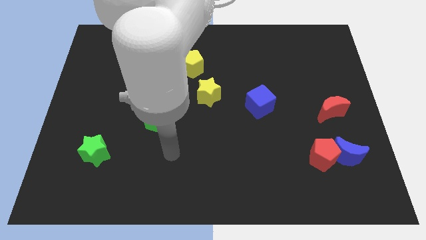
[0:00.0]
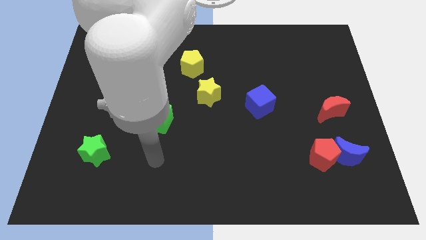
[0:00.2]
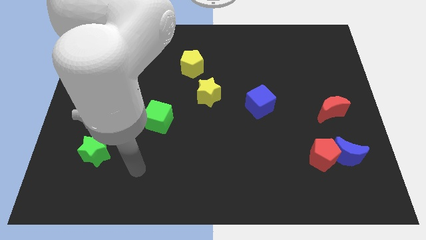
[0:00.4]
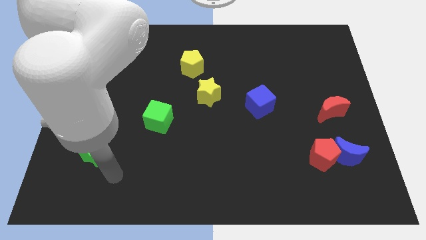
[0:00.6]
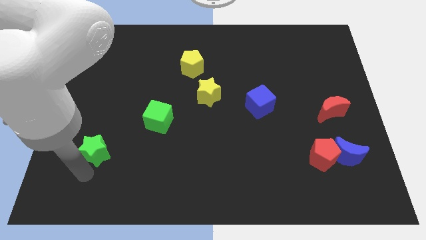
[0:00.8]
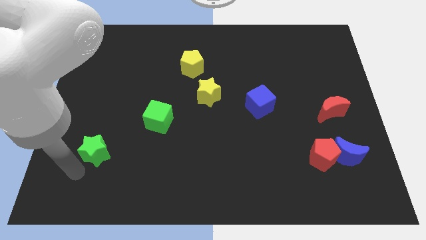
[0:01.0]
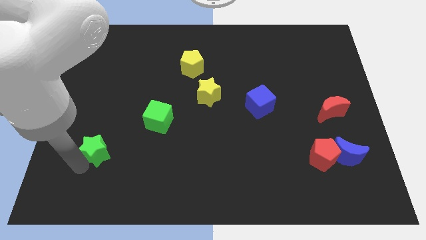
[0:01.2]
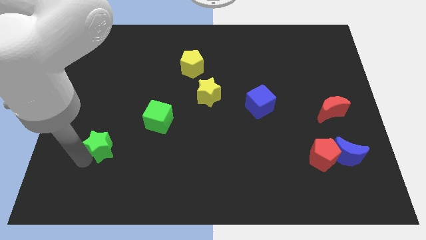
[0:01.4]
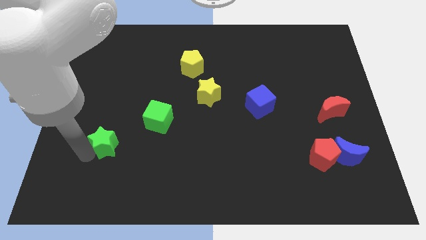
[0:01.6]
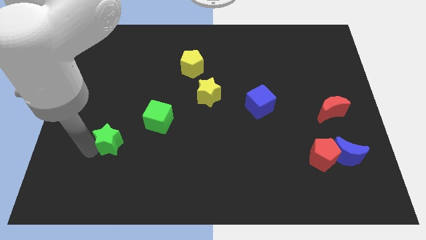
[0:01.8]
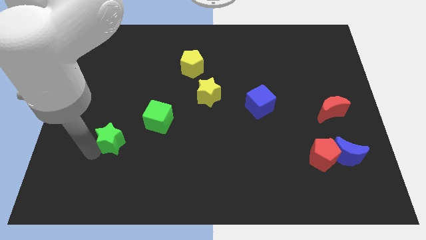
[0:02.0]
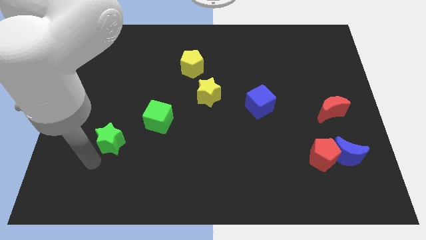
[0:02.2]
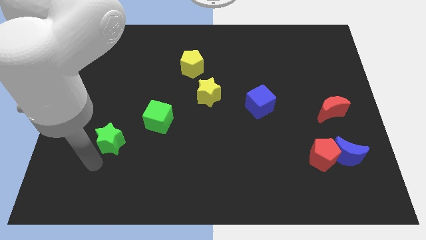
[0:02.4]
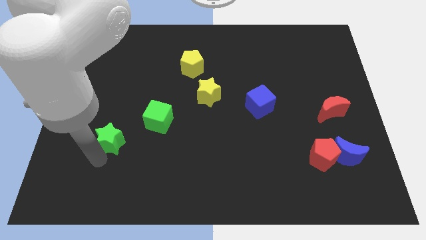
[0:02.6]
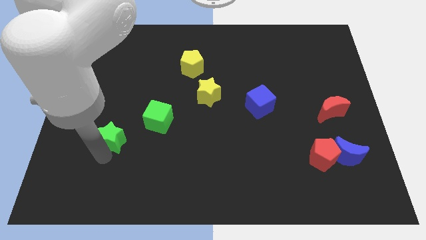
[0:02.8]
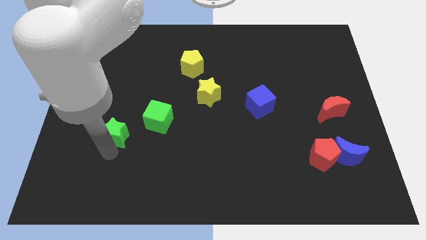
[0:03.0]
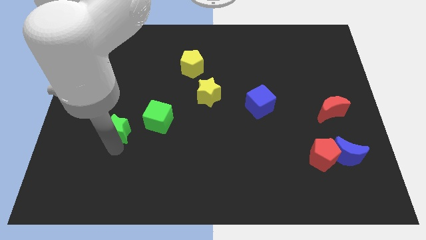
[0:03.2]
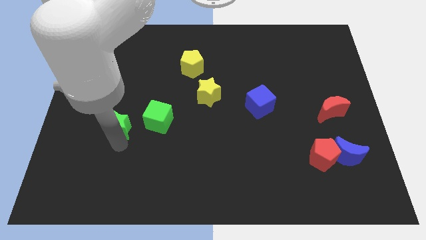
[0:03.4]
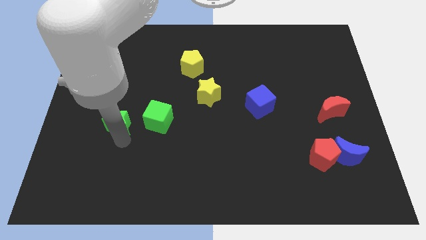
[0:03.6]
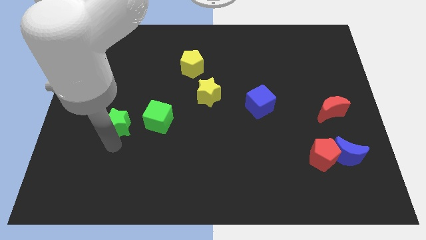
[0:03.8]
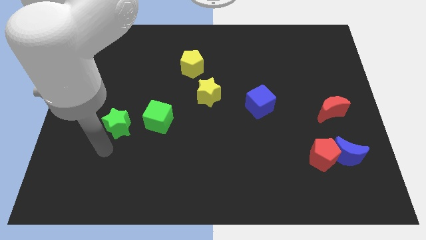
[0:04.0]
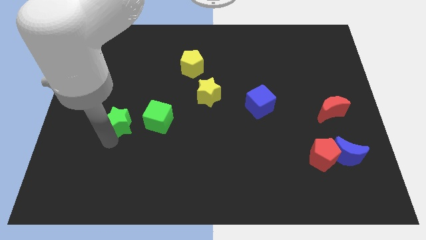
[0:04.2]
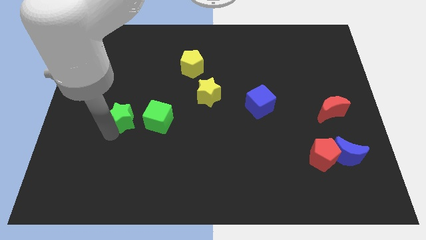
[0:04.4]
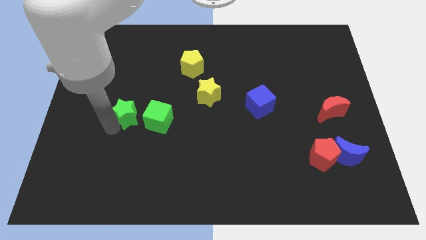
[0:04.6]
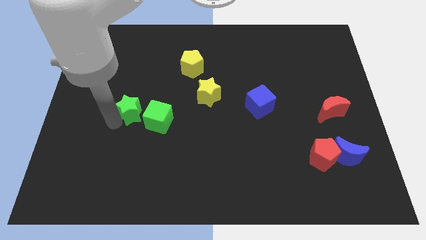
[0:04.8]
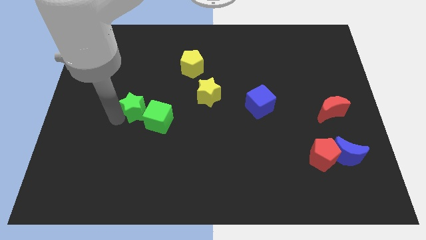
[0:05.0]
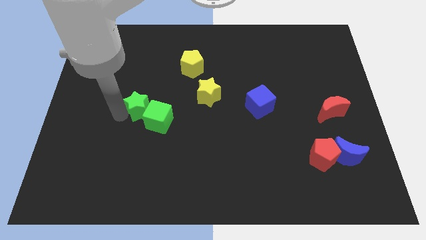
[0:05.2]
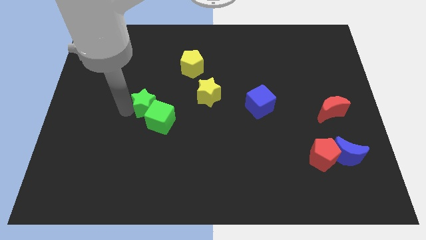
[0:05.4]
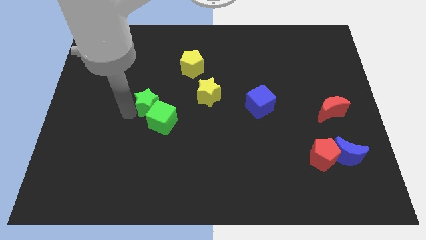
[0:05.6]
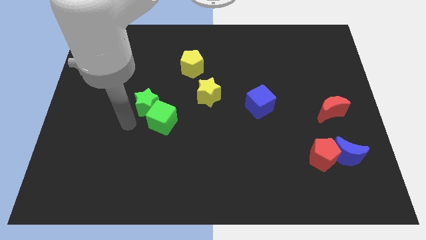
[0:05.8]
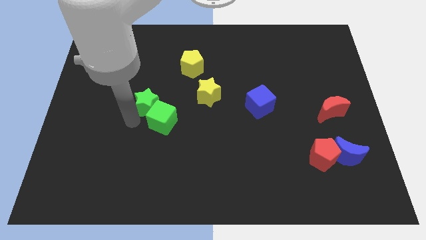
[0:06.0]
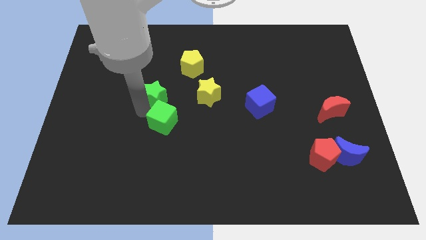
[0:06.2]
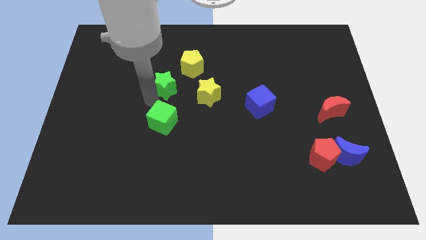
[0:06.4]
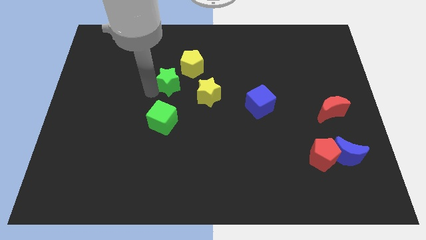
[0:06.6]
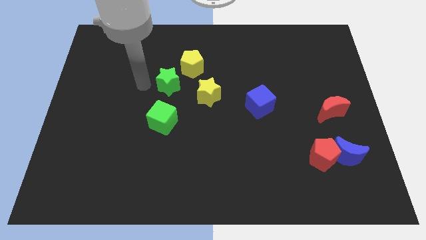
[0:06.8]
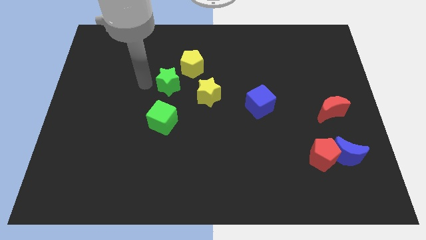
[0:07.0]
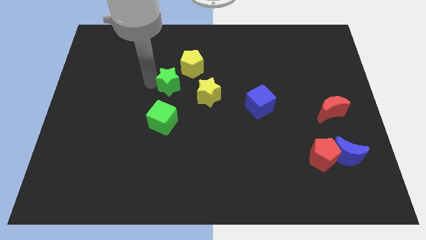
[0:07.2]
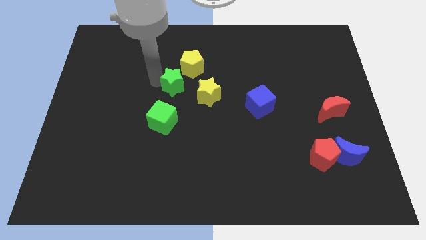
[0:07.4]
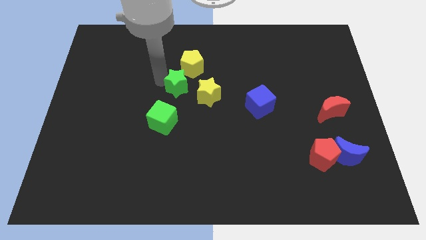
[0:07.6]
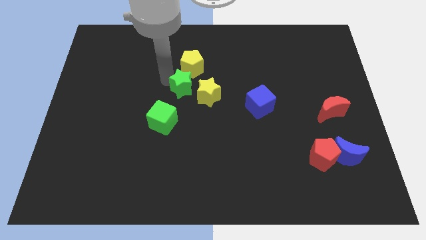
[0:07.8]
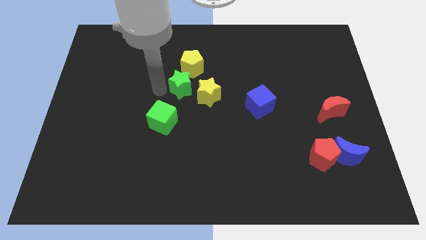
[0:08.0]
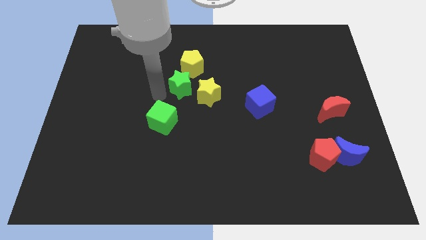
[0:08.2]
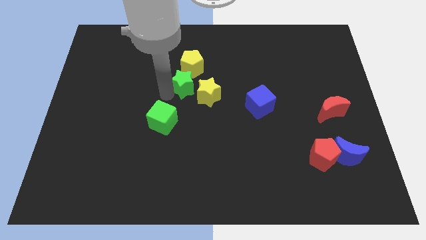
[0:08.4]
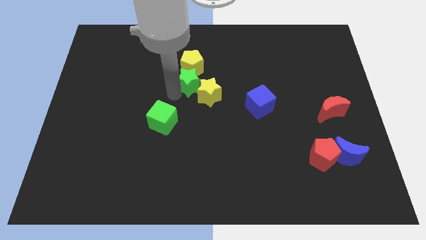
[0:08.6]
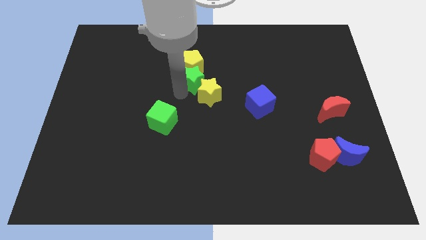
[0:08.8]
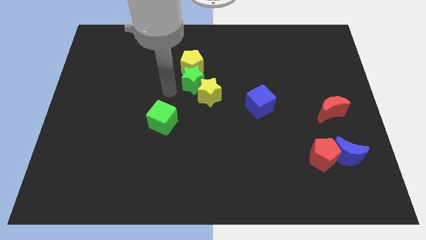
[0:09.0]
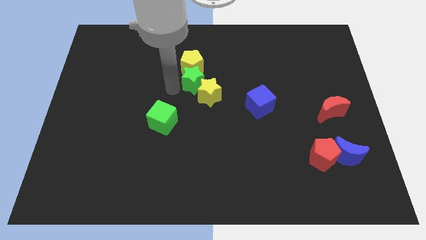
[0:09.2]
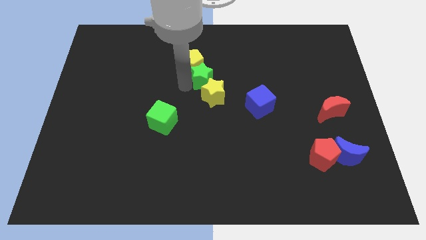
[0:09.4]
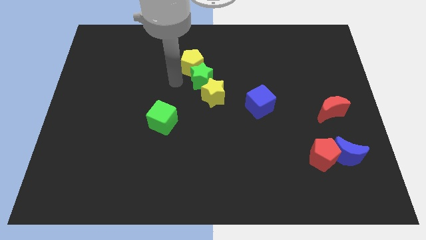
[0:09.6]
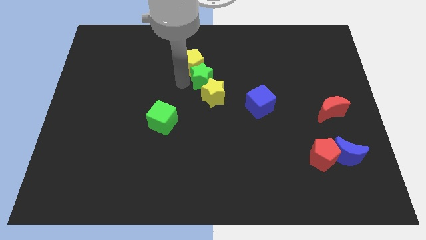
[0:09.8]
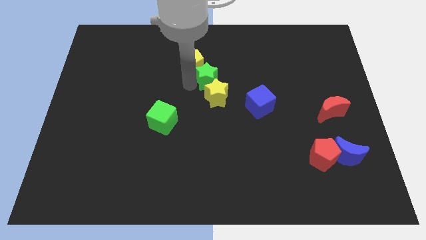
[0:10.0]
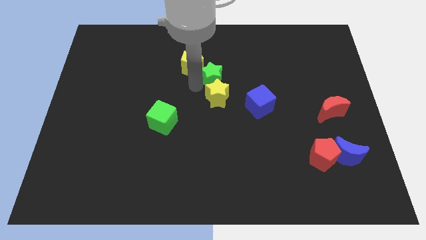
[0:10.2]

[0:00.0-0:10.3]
push the green star to the top right of the yellow star

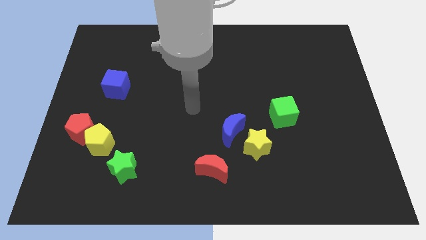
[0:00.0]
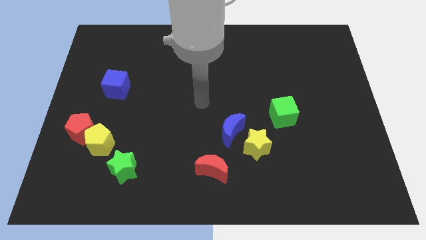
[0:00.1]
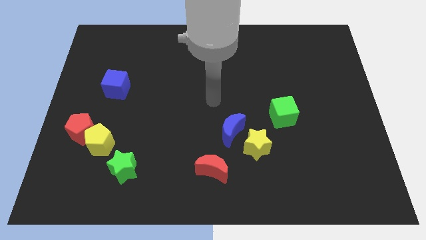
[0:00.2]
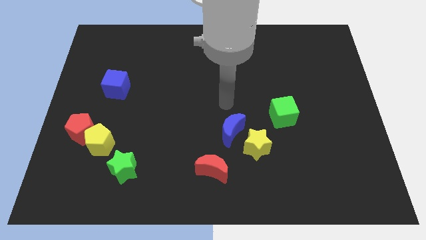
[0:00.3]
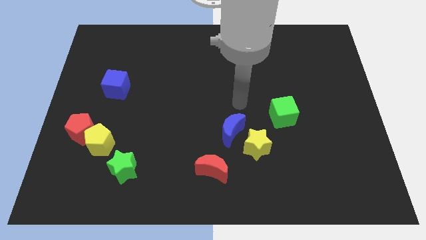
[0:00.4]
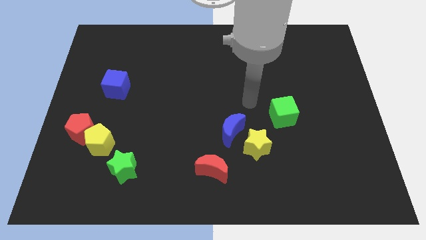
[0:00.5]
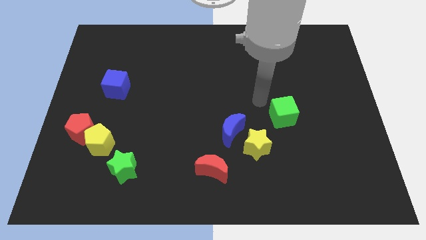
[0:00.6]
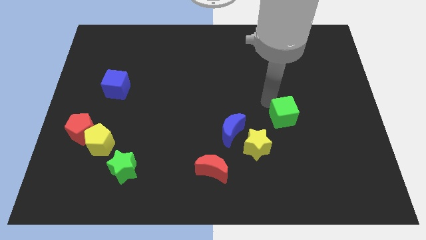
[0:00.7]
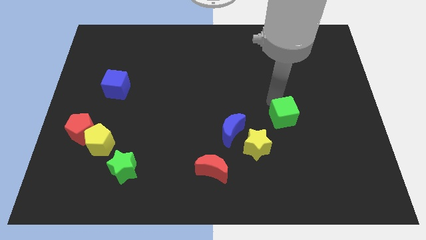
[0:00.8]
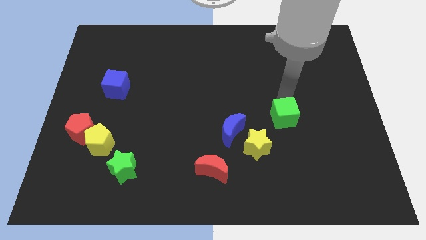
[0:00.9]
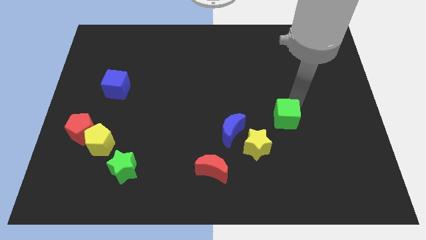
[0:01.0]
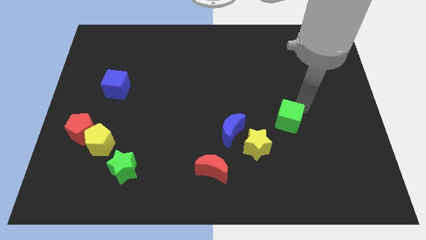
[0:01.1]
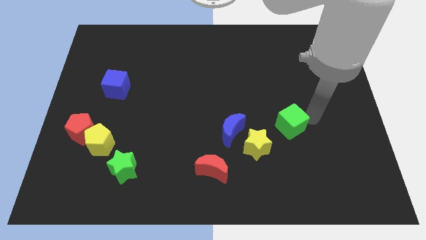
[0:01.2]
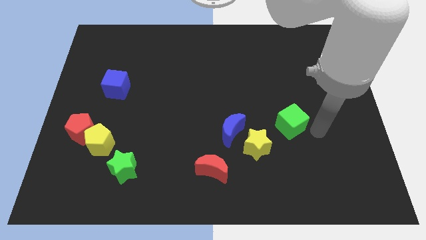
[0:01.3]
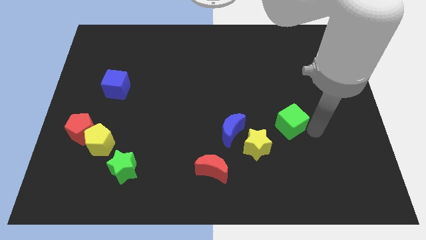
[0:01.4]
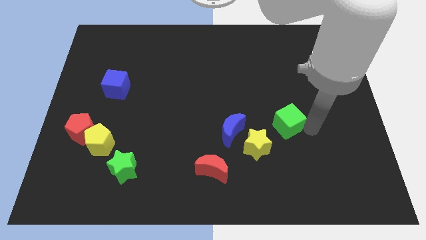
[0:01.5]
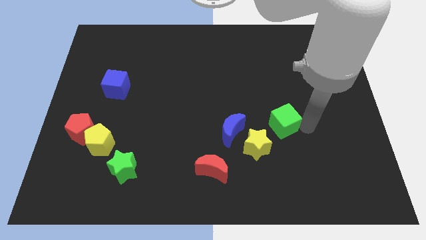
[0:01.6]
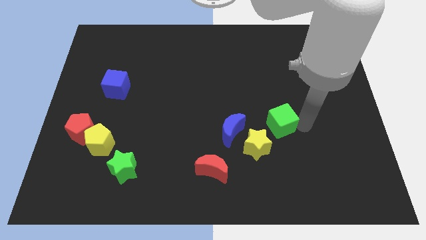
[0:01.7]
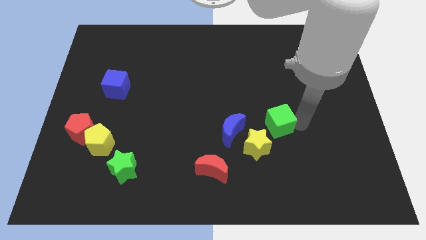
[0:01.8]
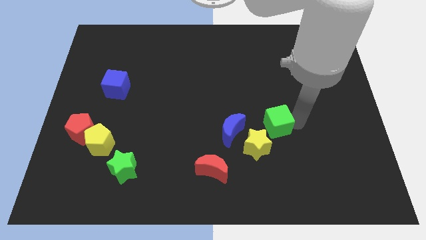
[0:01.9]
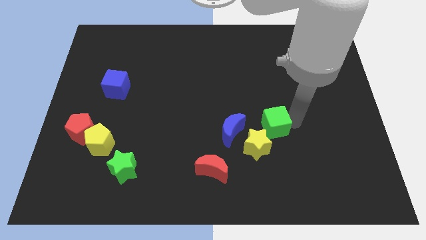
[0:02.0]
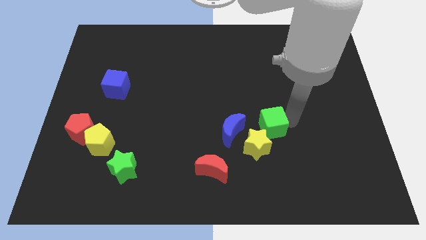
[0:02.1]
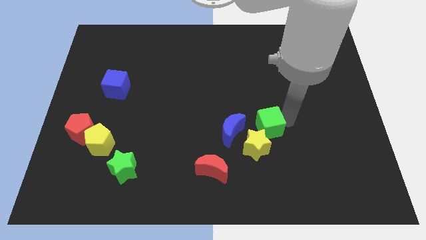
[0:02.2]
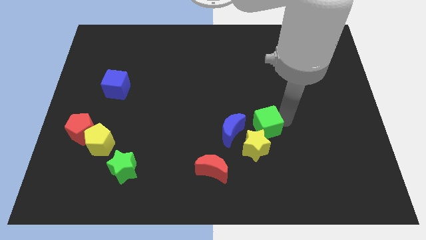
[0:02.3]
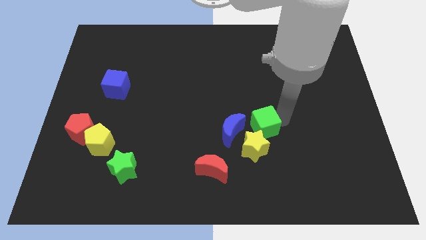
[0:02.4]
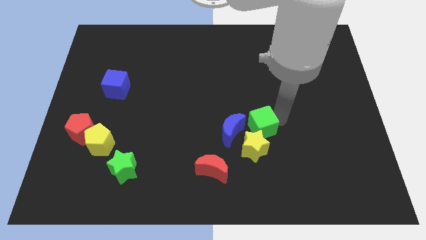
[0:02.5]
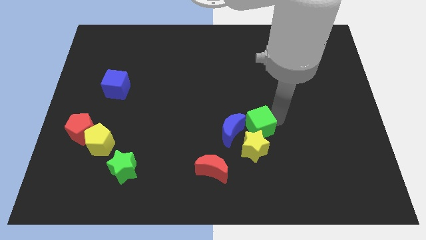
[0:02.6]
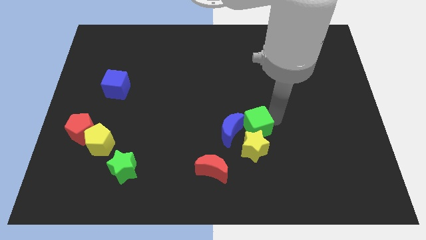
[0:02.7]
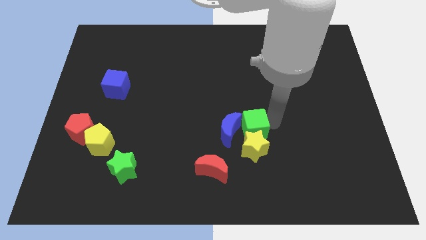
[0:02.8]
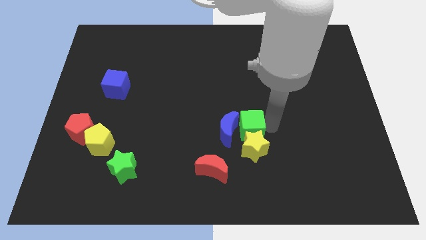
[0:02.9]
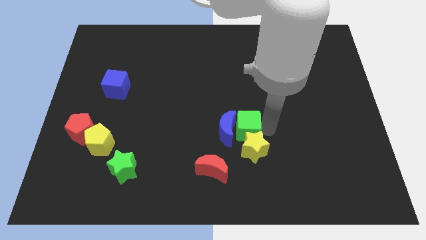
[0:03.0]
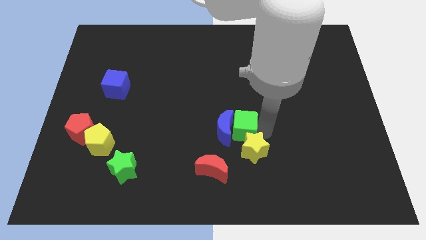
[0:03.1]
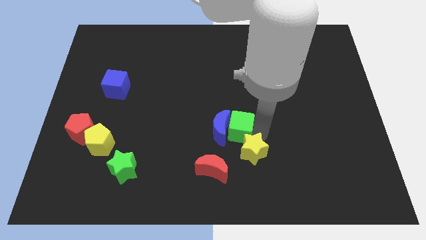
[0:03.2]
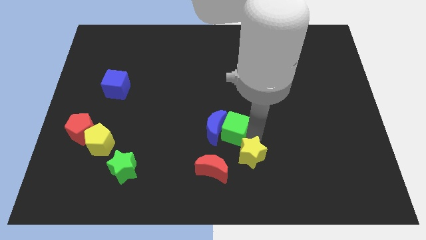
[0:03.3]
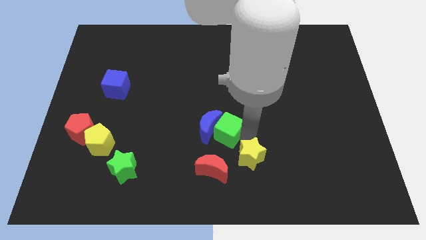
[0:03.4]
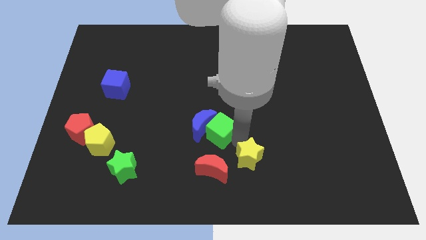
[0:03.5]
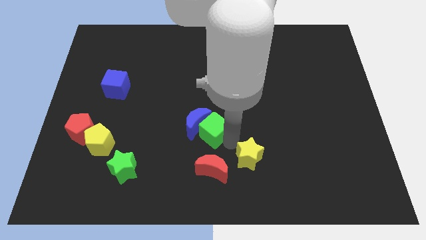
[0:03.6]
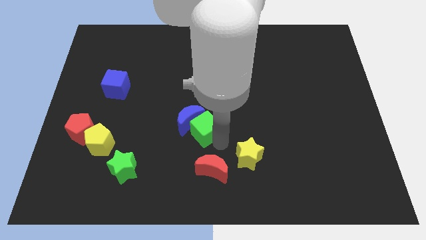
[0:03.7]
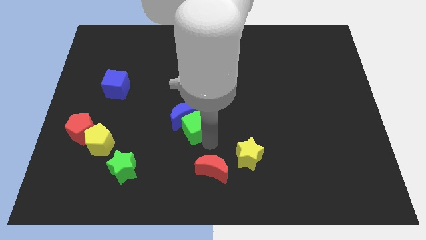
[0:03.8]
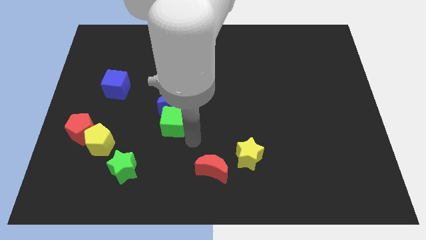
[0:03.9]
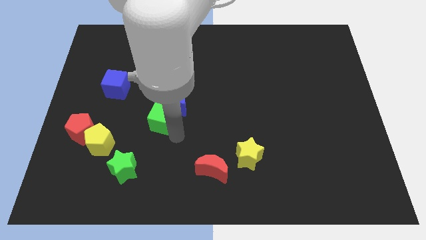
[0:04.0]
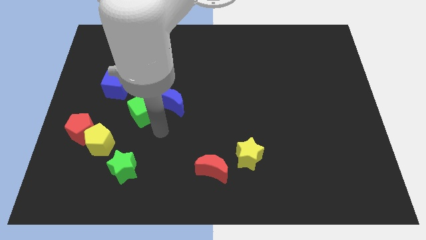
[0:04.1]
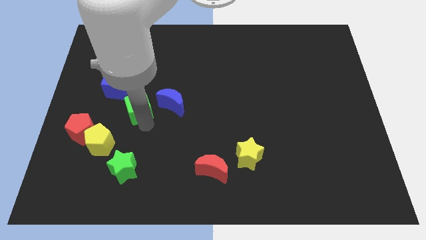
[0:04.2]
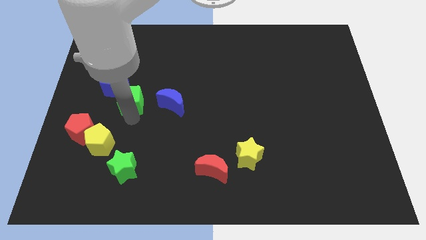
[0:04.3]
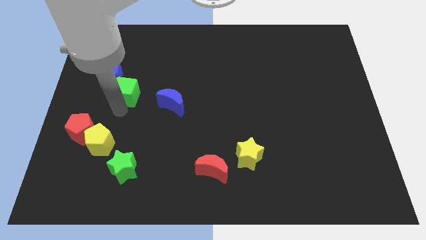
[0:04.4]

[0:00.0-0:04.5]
move the green cube above the yellow pentagon
